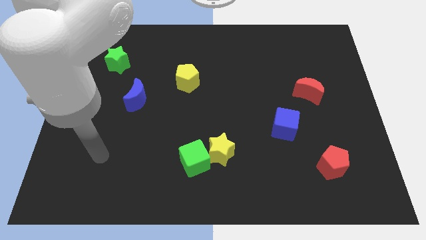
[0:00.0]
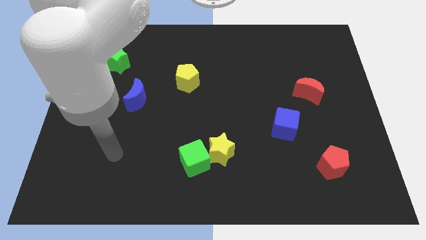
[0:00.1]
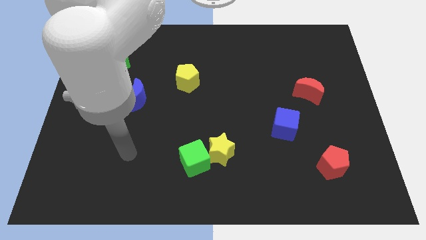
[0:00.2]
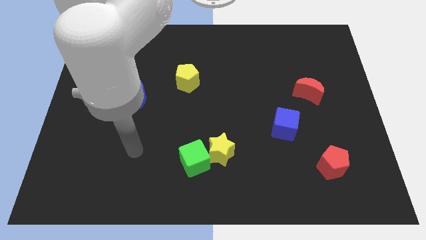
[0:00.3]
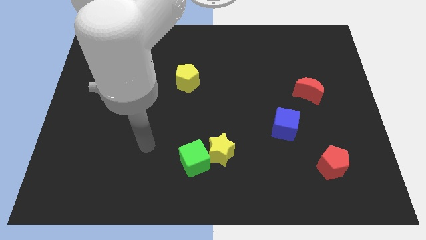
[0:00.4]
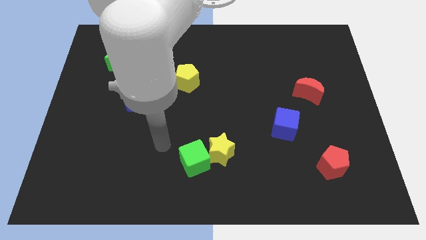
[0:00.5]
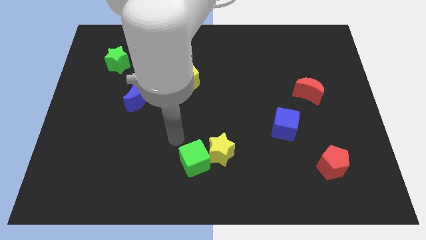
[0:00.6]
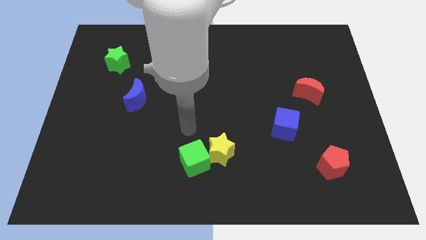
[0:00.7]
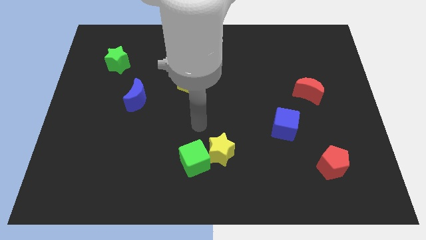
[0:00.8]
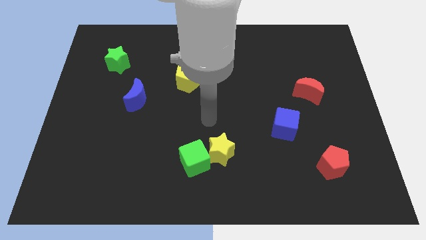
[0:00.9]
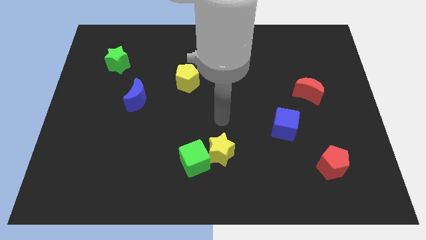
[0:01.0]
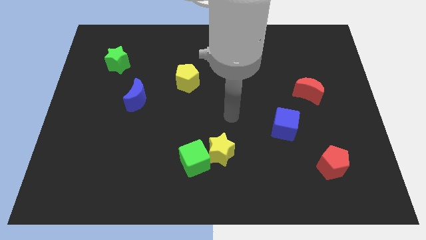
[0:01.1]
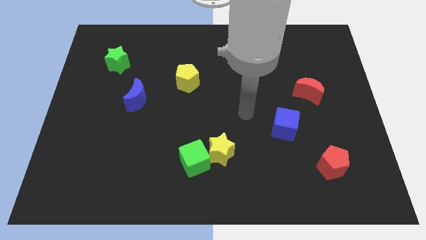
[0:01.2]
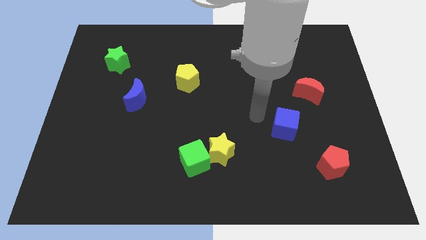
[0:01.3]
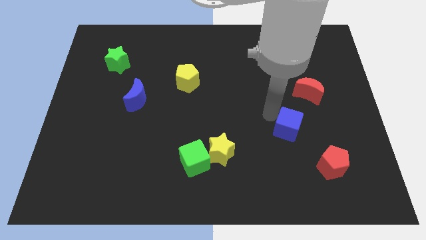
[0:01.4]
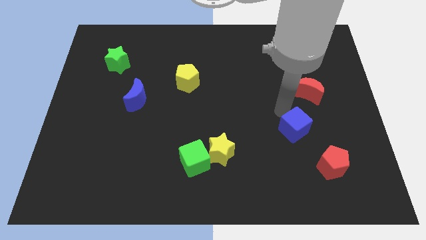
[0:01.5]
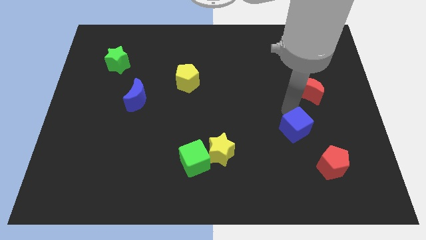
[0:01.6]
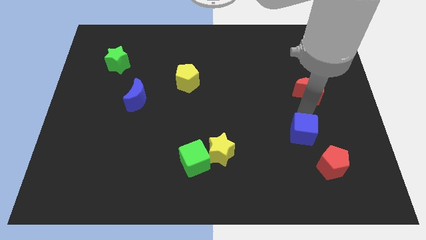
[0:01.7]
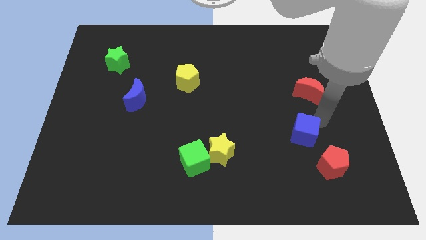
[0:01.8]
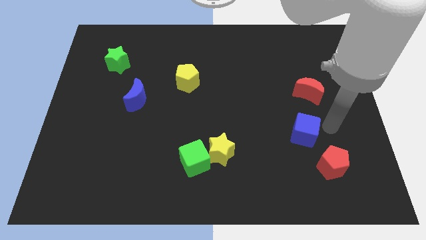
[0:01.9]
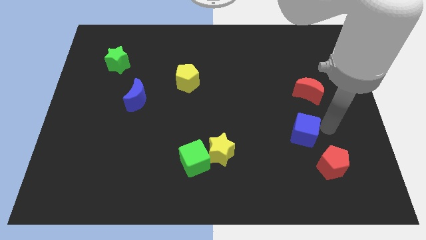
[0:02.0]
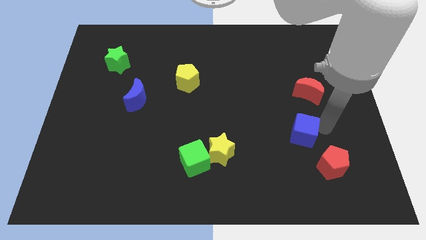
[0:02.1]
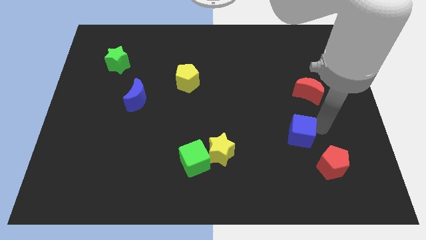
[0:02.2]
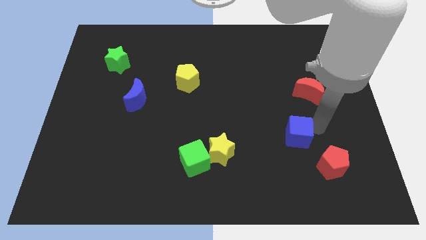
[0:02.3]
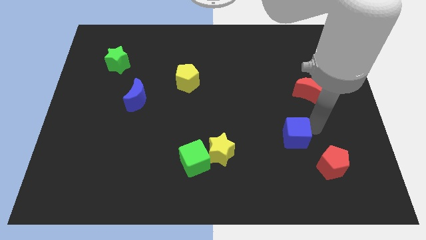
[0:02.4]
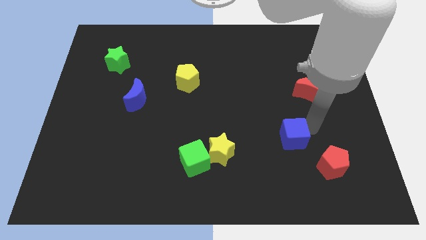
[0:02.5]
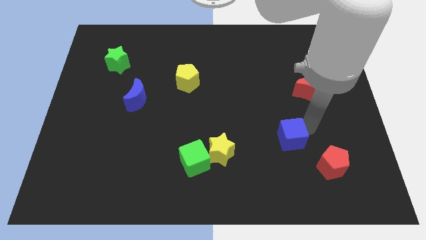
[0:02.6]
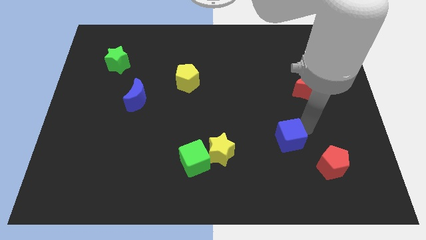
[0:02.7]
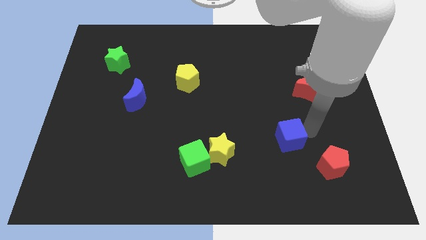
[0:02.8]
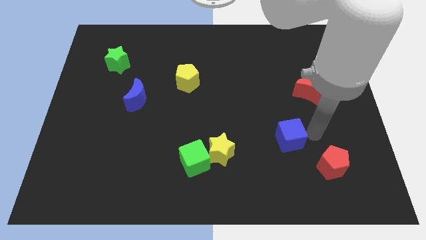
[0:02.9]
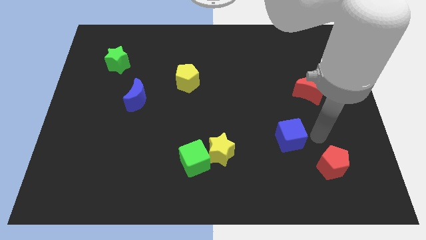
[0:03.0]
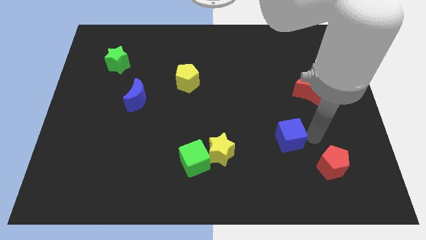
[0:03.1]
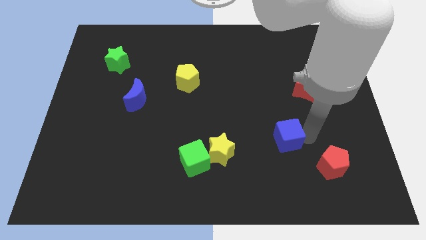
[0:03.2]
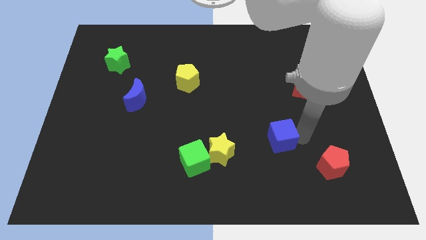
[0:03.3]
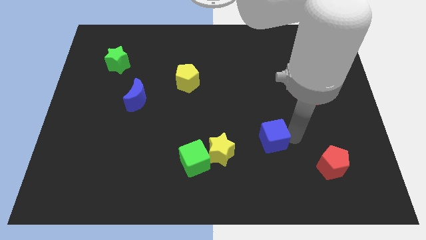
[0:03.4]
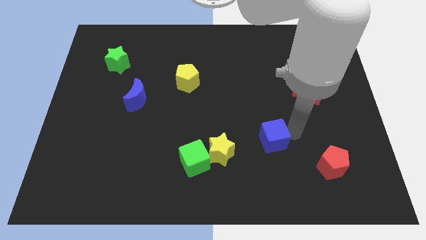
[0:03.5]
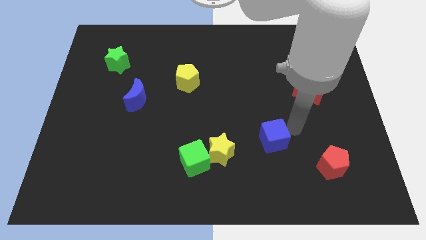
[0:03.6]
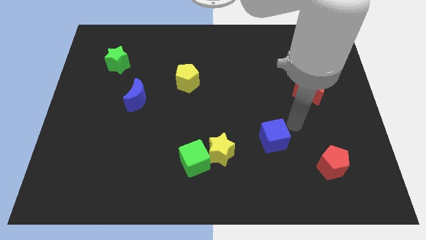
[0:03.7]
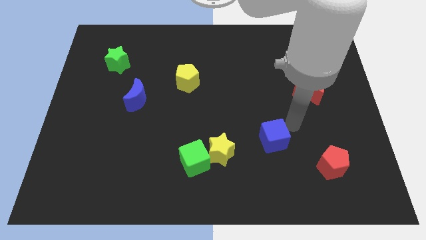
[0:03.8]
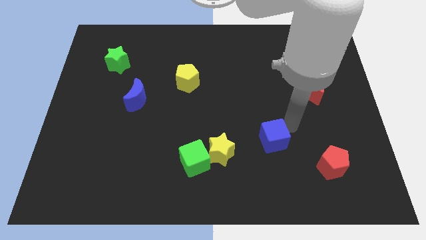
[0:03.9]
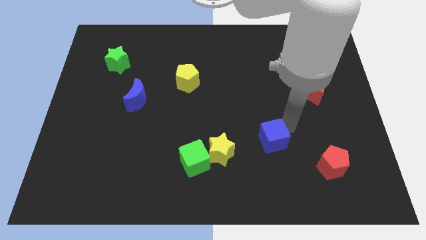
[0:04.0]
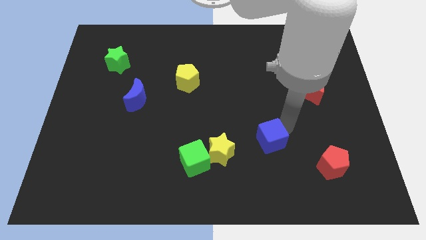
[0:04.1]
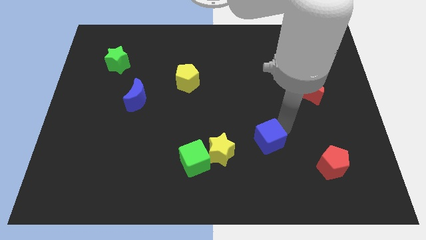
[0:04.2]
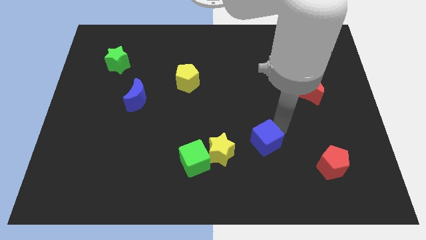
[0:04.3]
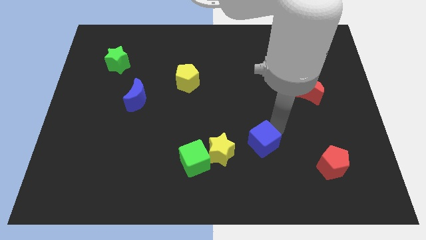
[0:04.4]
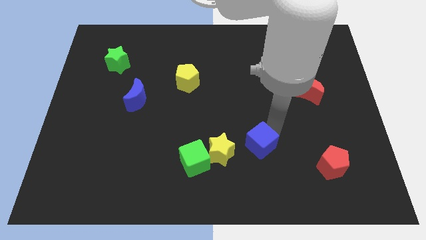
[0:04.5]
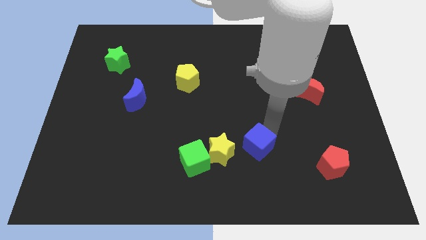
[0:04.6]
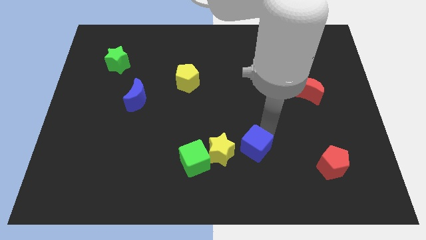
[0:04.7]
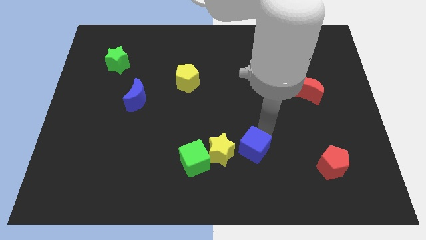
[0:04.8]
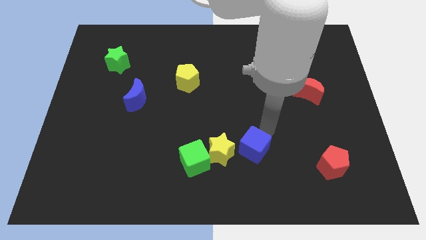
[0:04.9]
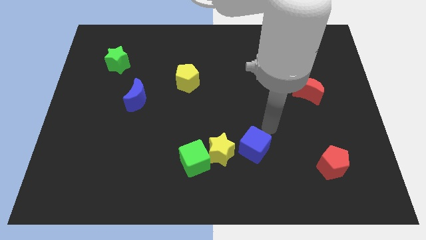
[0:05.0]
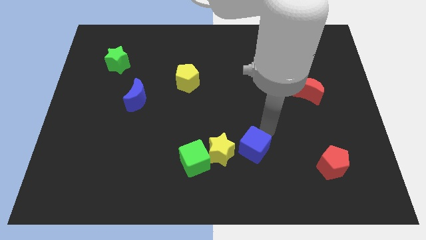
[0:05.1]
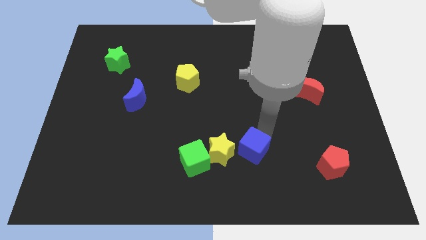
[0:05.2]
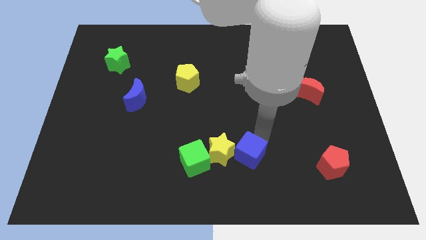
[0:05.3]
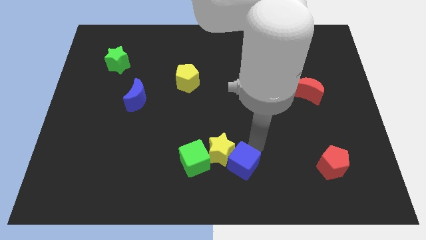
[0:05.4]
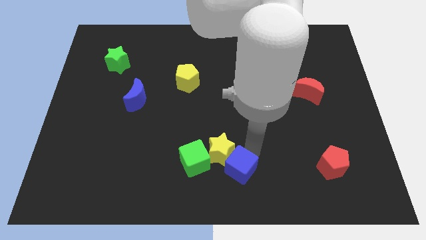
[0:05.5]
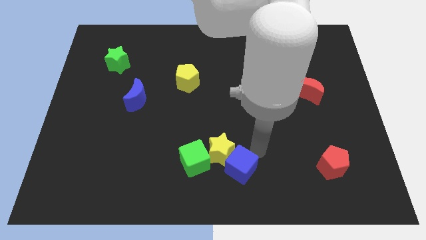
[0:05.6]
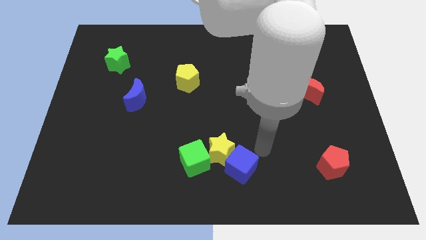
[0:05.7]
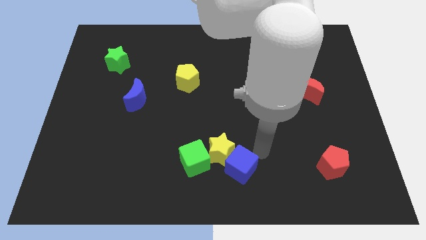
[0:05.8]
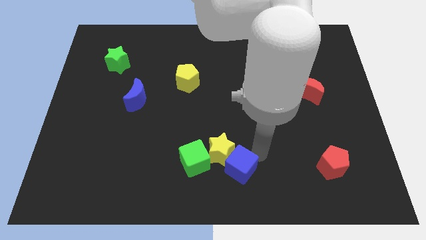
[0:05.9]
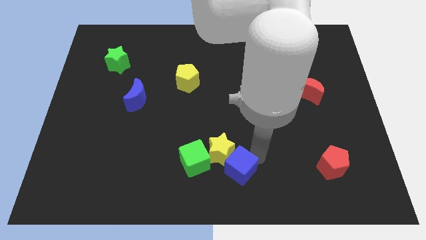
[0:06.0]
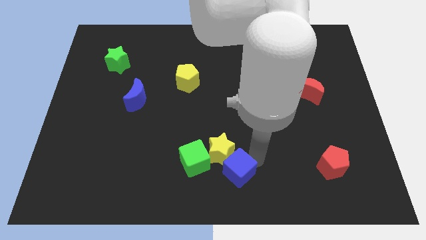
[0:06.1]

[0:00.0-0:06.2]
slide the blue cube to the bottom right side of the green cube

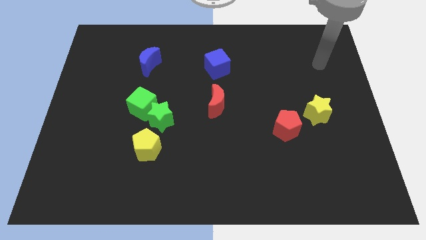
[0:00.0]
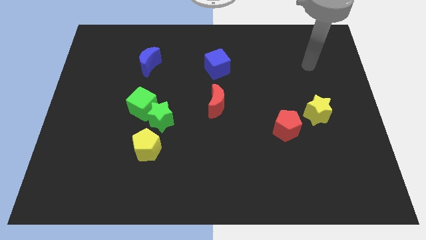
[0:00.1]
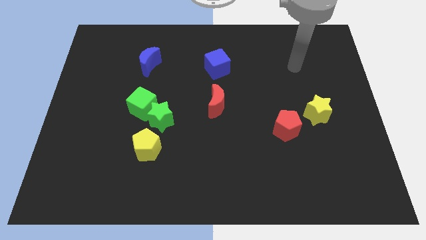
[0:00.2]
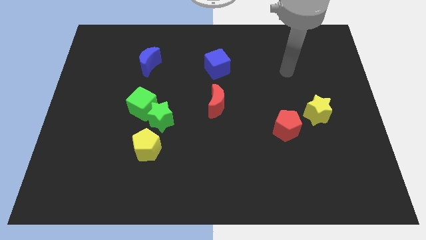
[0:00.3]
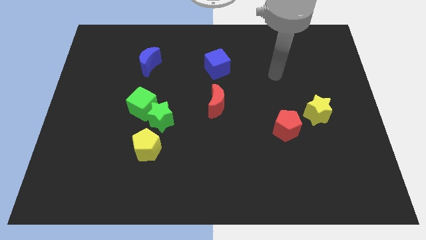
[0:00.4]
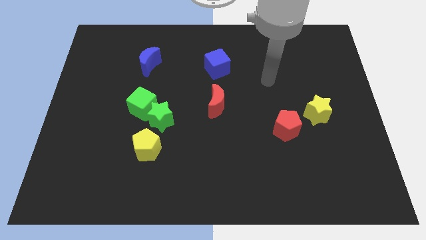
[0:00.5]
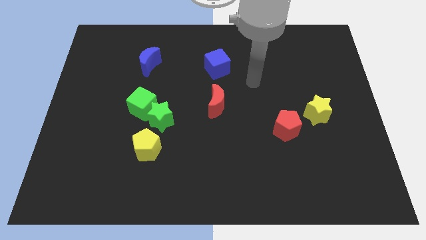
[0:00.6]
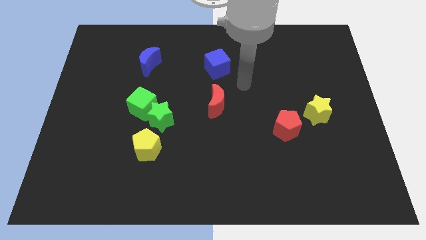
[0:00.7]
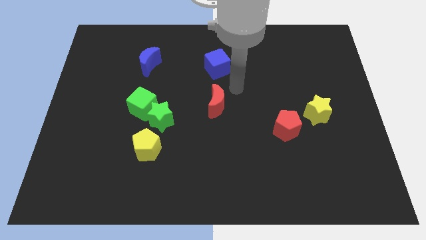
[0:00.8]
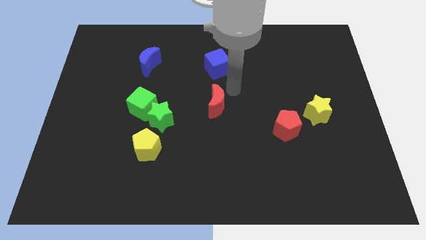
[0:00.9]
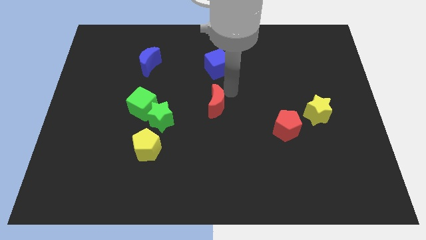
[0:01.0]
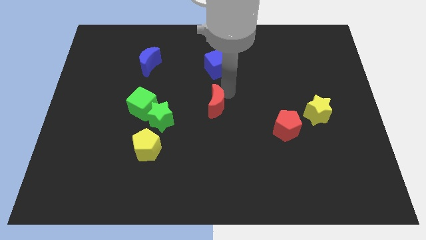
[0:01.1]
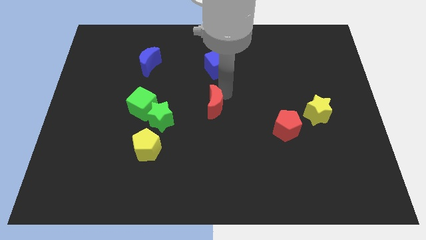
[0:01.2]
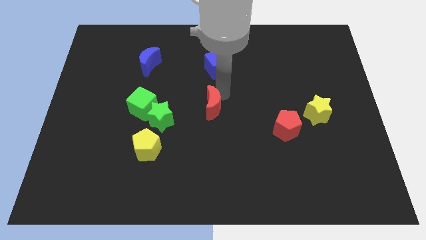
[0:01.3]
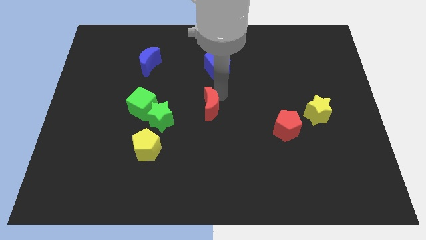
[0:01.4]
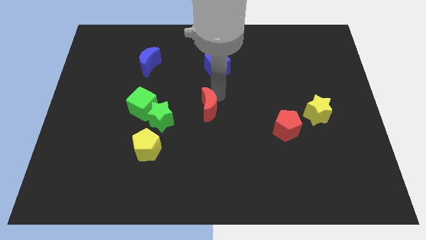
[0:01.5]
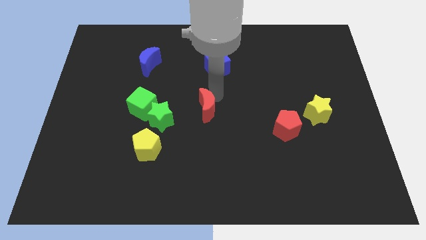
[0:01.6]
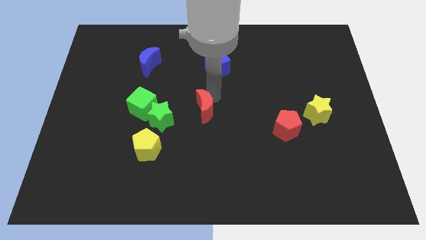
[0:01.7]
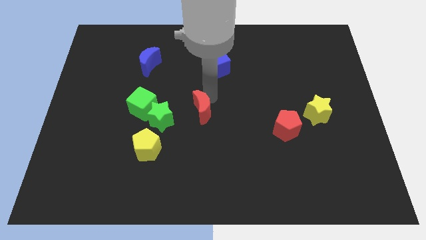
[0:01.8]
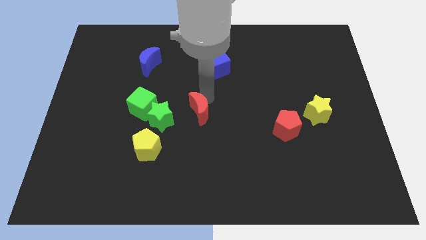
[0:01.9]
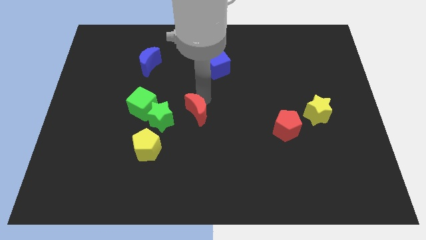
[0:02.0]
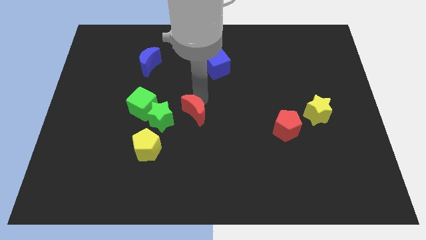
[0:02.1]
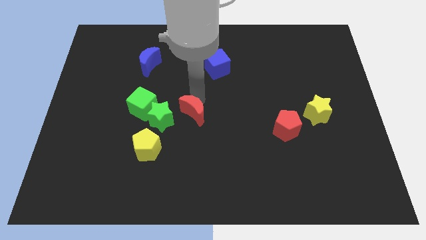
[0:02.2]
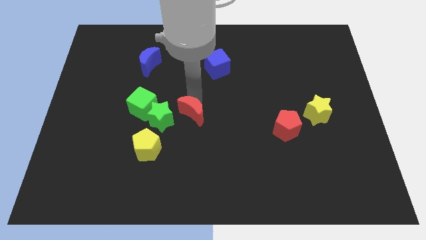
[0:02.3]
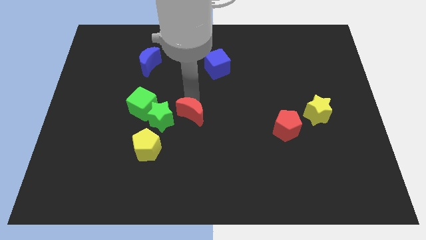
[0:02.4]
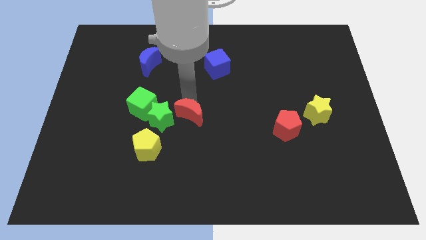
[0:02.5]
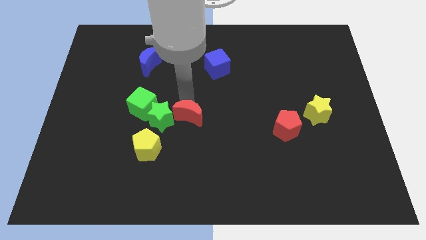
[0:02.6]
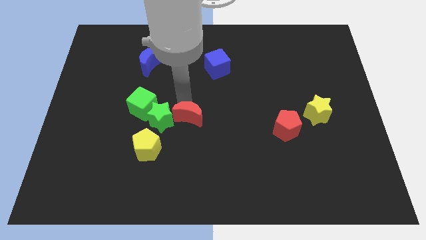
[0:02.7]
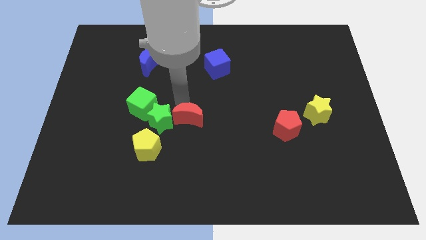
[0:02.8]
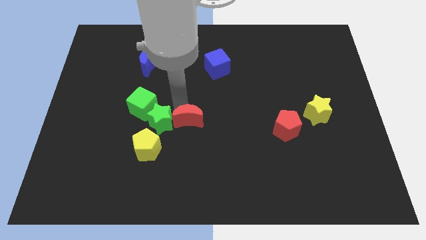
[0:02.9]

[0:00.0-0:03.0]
put the red moon diagonally down and to the right of the green star
